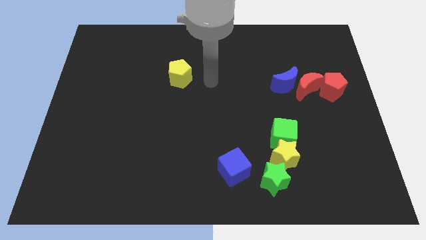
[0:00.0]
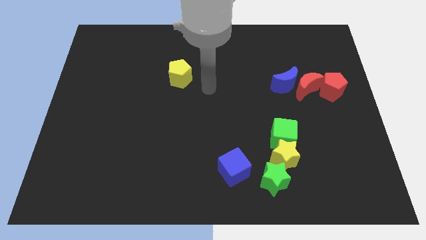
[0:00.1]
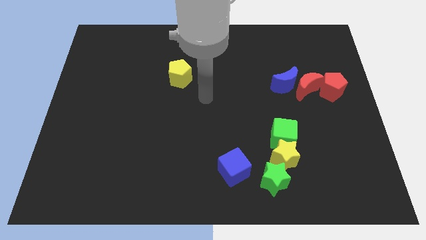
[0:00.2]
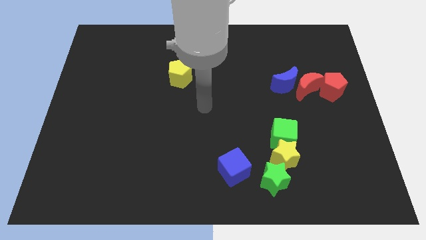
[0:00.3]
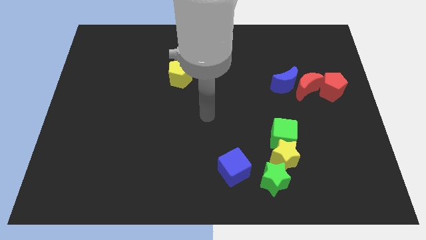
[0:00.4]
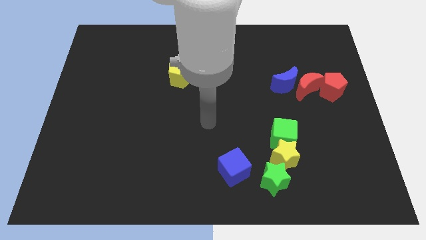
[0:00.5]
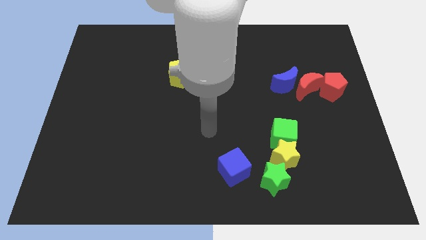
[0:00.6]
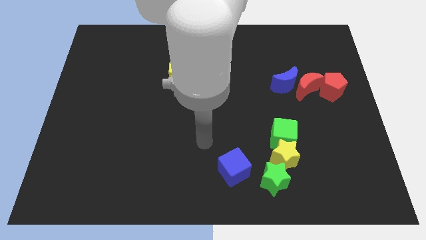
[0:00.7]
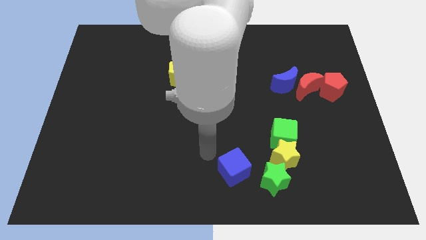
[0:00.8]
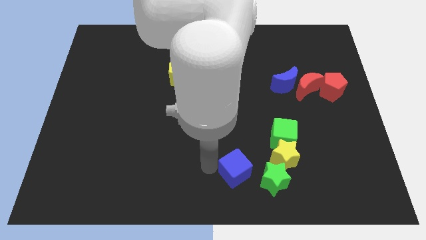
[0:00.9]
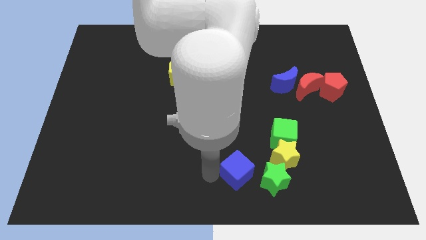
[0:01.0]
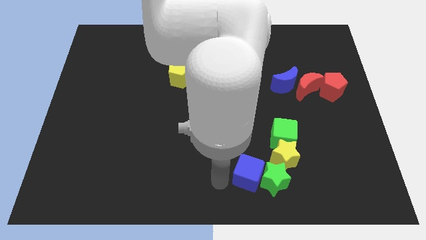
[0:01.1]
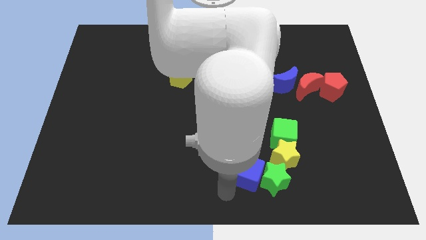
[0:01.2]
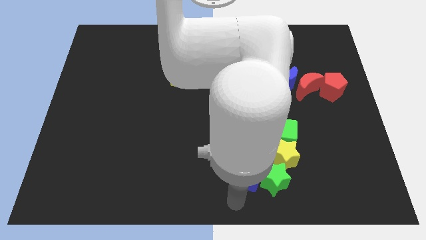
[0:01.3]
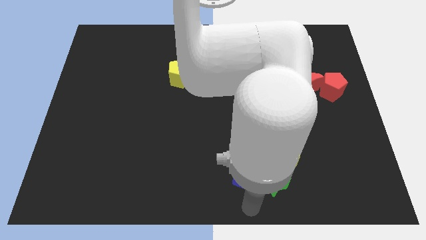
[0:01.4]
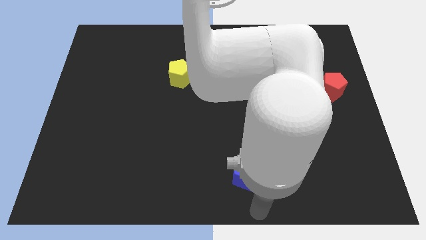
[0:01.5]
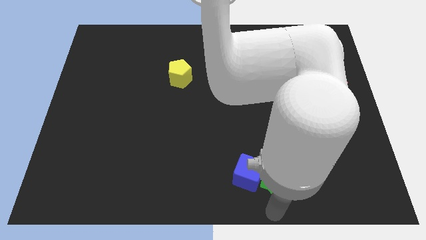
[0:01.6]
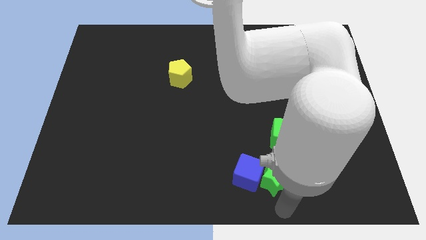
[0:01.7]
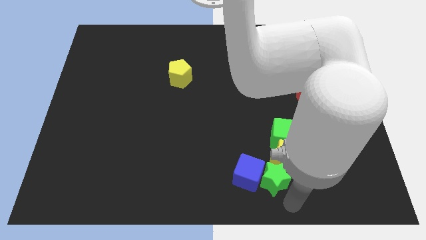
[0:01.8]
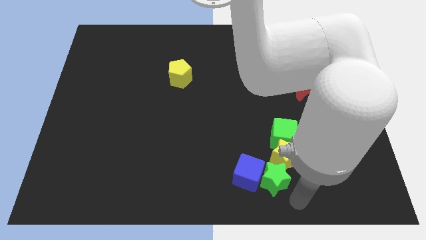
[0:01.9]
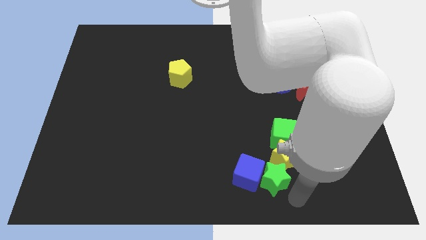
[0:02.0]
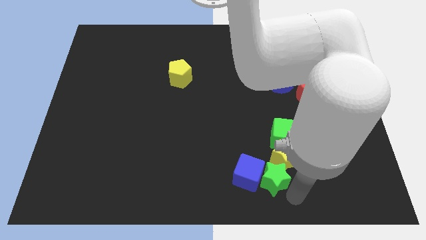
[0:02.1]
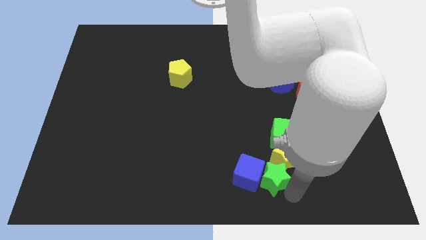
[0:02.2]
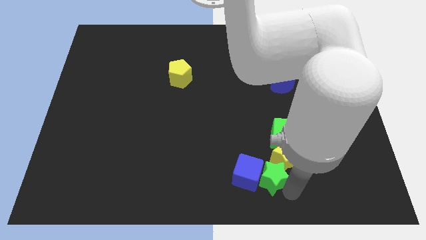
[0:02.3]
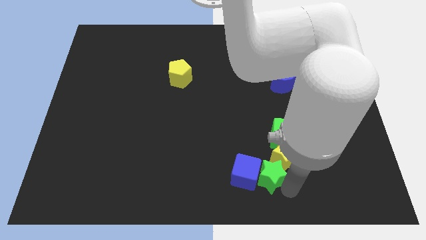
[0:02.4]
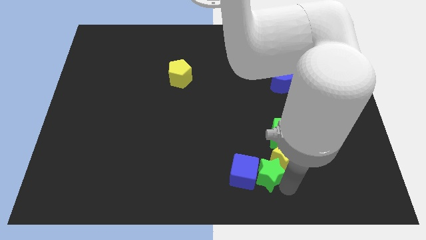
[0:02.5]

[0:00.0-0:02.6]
slide the green star just left of the yellow star

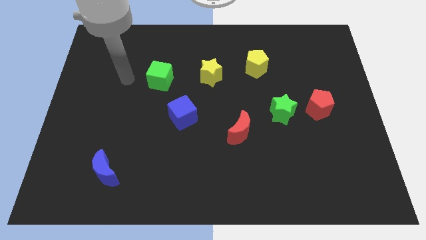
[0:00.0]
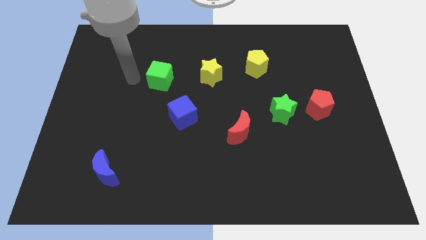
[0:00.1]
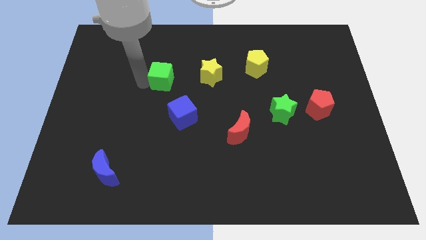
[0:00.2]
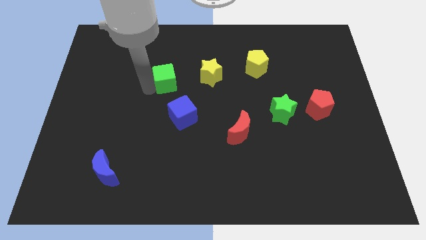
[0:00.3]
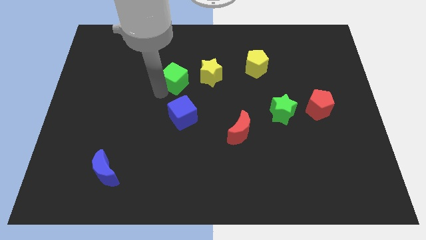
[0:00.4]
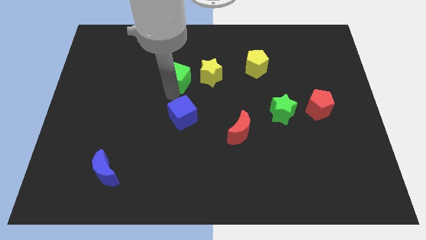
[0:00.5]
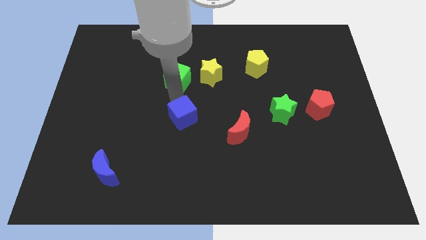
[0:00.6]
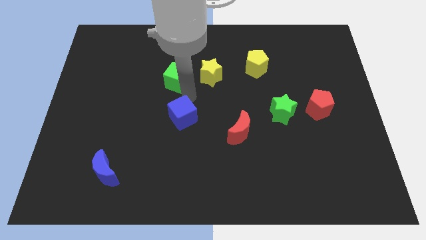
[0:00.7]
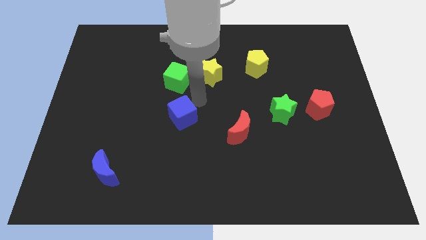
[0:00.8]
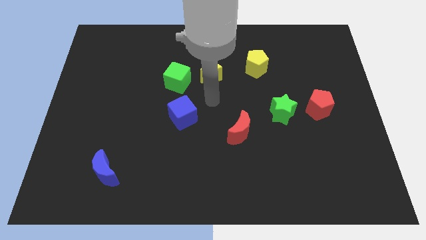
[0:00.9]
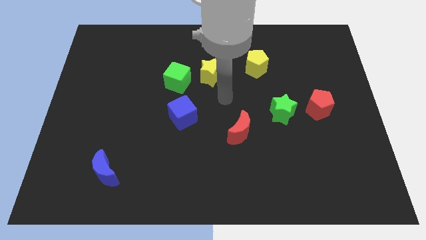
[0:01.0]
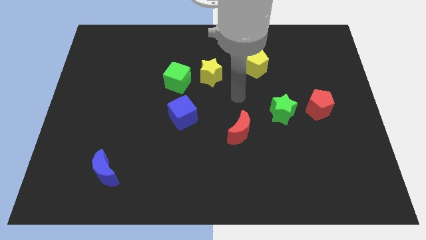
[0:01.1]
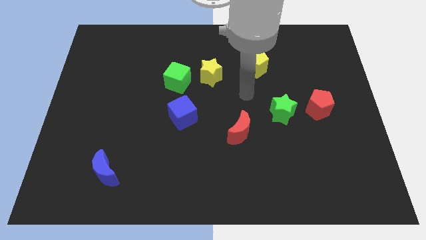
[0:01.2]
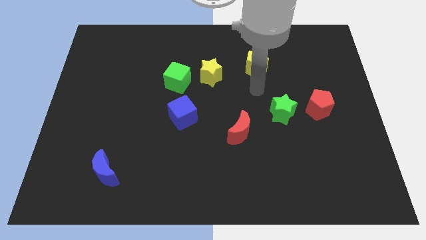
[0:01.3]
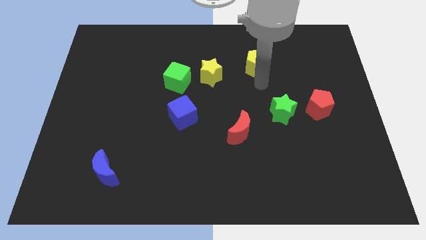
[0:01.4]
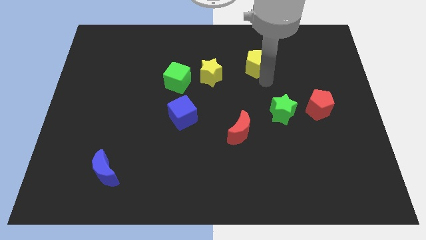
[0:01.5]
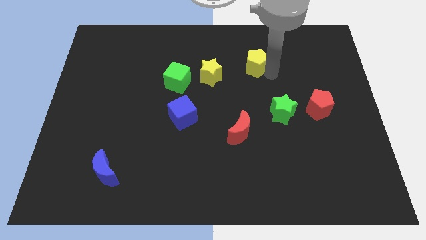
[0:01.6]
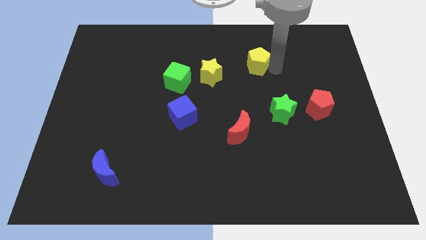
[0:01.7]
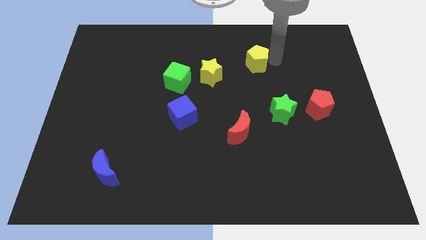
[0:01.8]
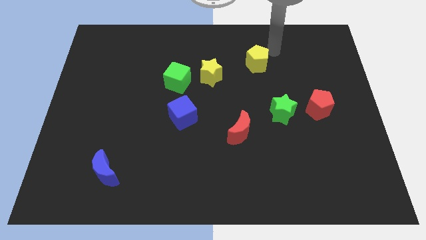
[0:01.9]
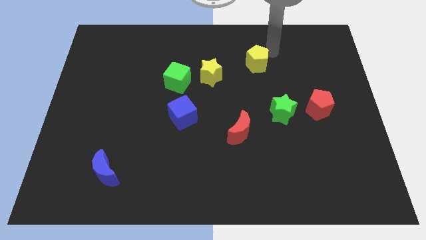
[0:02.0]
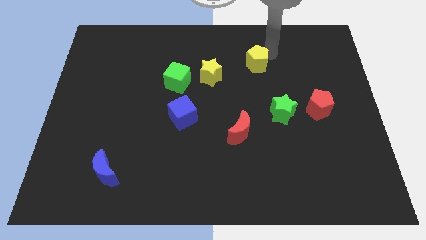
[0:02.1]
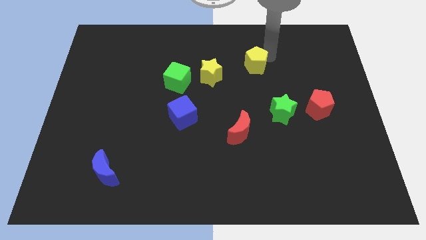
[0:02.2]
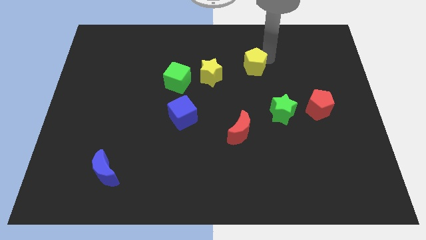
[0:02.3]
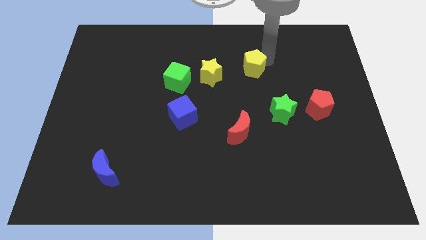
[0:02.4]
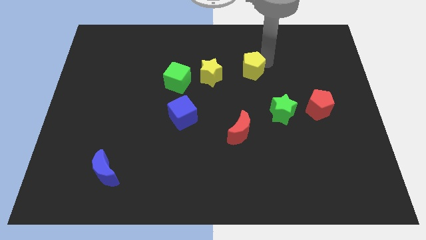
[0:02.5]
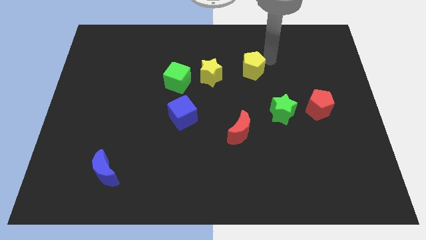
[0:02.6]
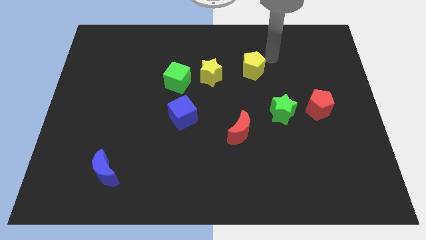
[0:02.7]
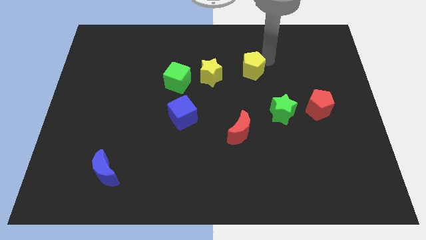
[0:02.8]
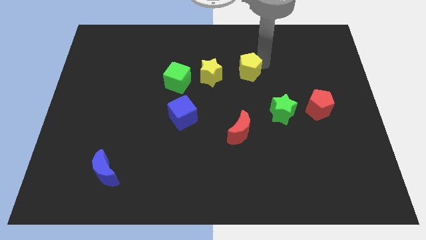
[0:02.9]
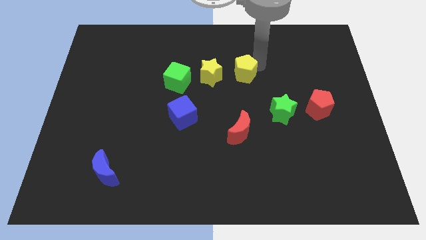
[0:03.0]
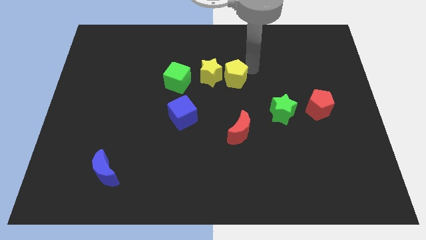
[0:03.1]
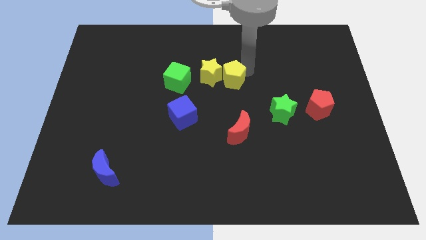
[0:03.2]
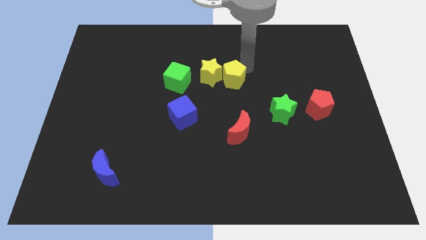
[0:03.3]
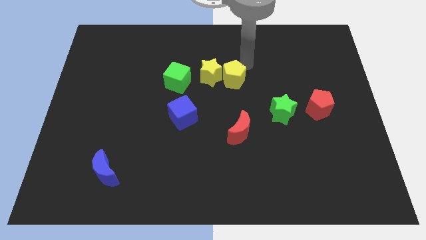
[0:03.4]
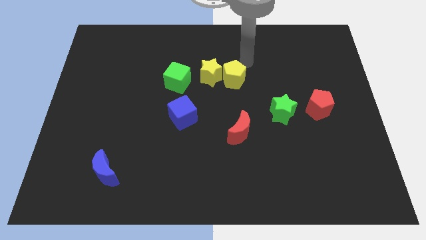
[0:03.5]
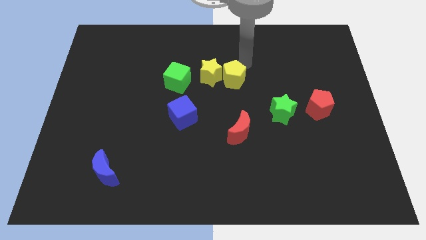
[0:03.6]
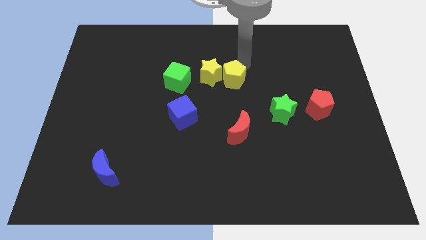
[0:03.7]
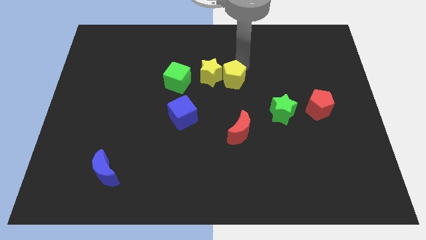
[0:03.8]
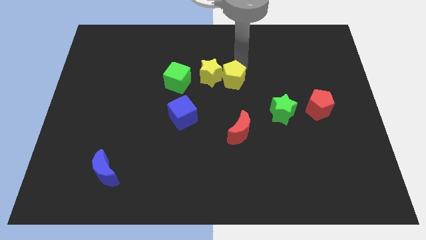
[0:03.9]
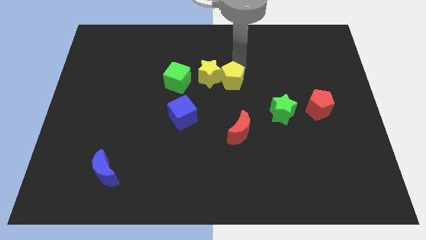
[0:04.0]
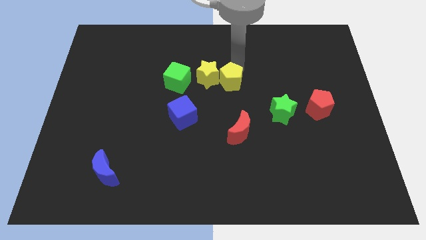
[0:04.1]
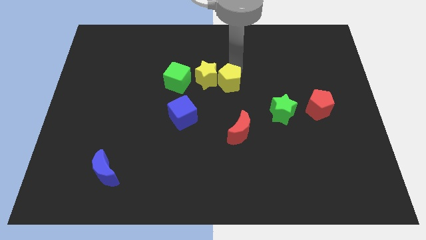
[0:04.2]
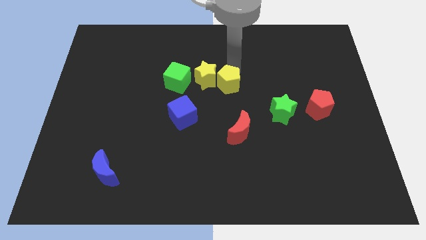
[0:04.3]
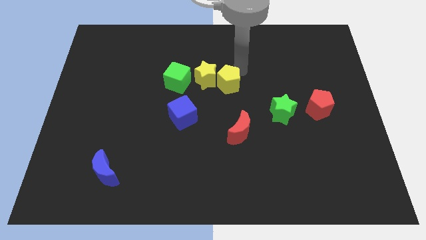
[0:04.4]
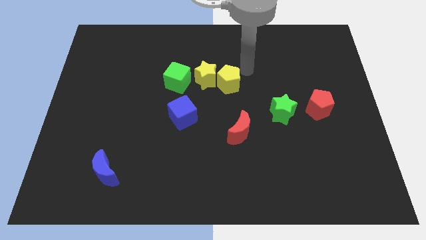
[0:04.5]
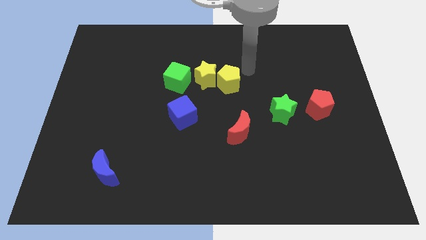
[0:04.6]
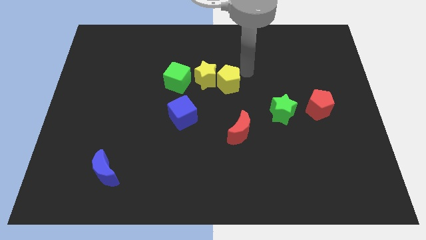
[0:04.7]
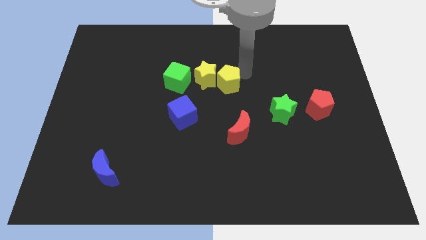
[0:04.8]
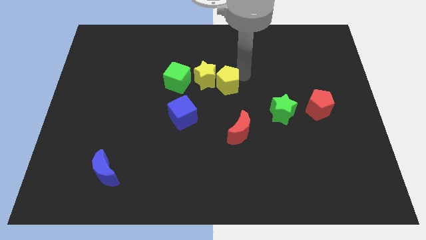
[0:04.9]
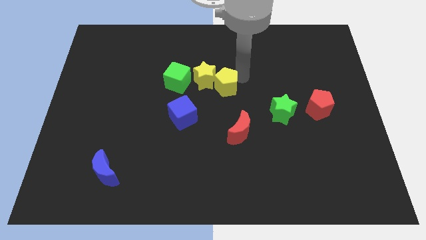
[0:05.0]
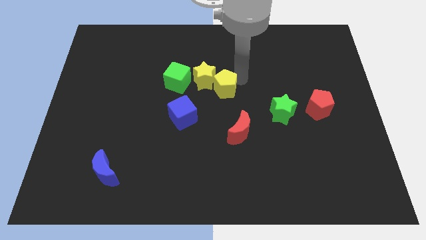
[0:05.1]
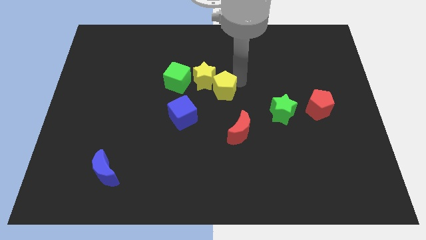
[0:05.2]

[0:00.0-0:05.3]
put the yellow pentagon to the top right of the blue cube

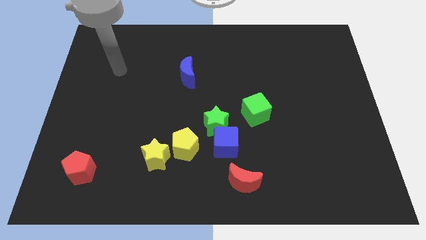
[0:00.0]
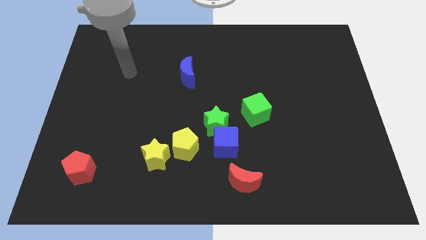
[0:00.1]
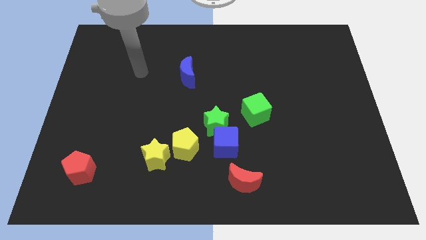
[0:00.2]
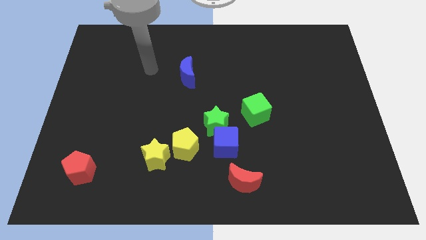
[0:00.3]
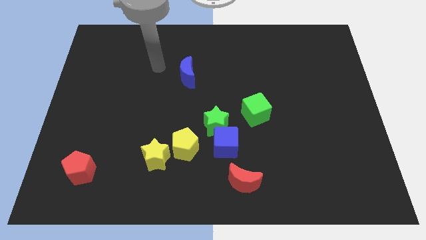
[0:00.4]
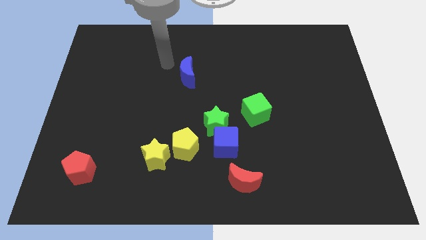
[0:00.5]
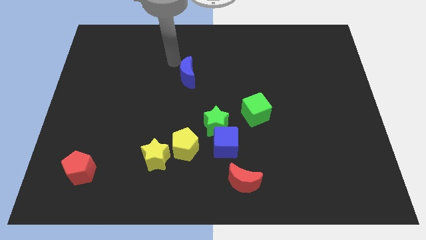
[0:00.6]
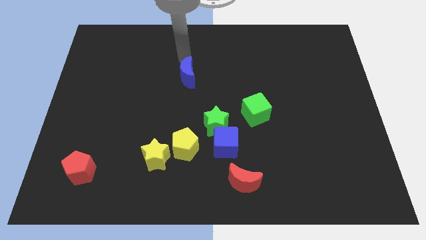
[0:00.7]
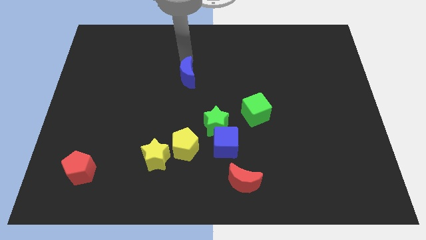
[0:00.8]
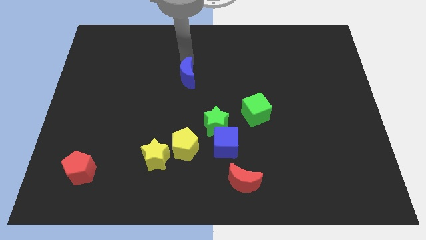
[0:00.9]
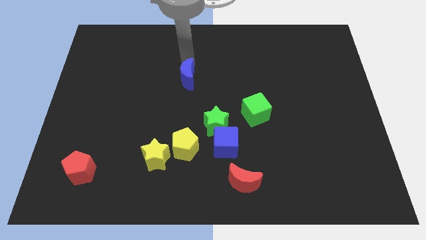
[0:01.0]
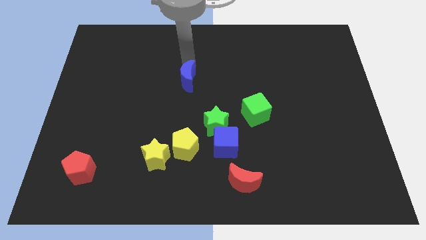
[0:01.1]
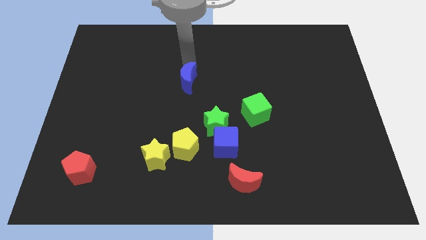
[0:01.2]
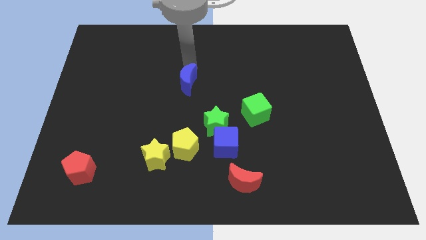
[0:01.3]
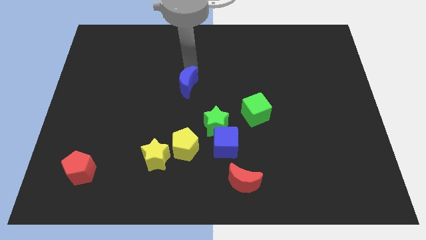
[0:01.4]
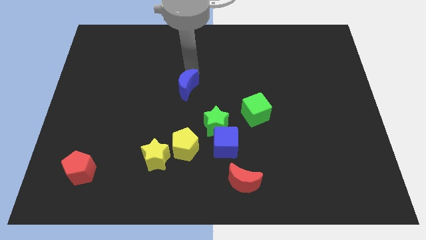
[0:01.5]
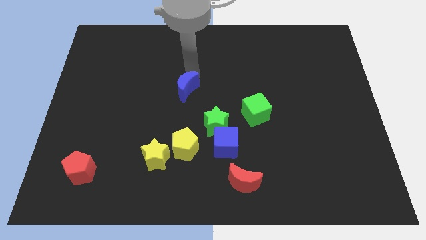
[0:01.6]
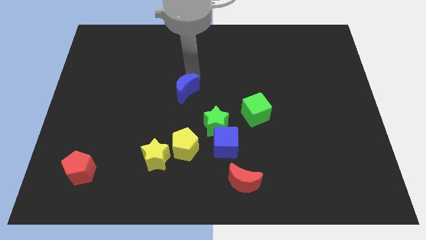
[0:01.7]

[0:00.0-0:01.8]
move the blue moon above the yellow pentagon
